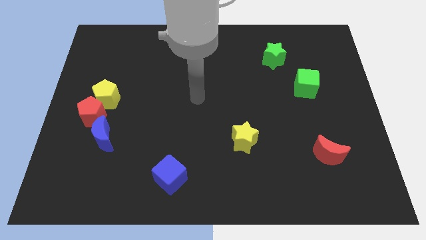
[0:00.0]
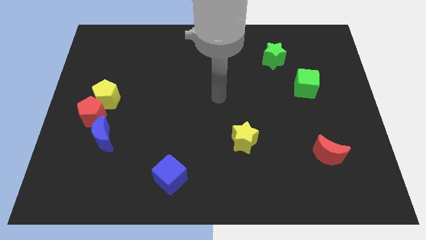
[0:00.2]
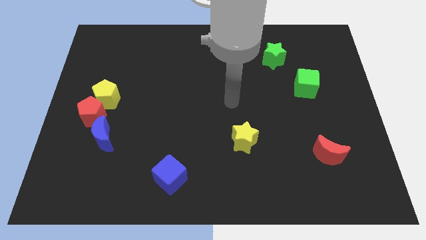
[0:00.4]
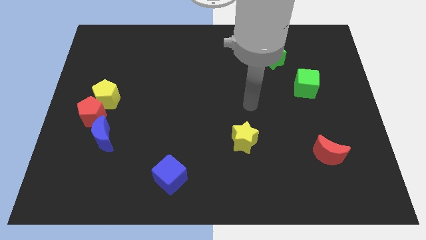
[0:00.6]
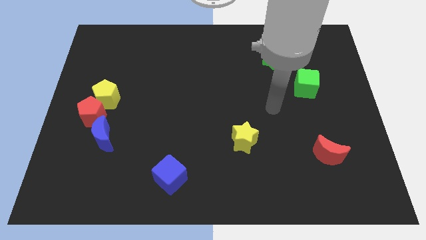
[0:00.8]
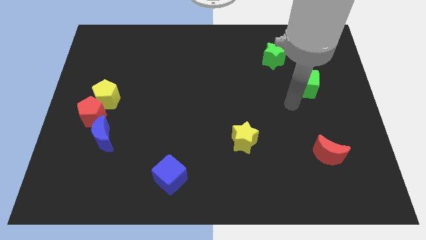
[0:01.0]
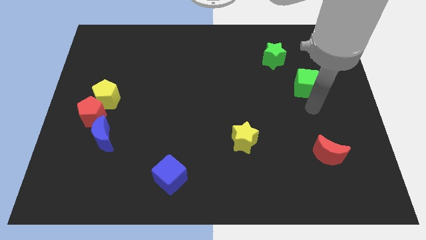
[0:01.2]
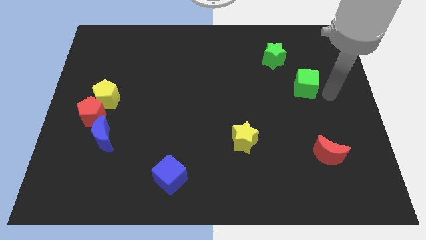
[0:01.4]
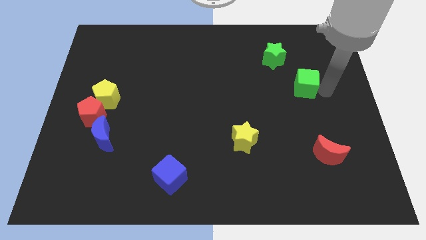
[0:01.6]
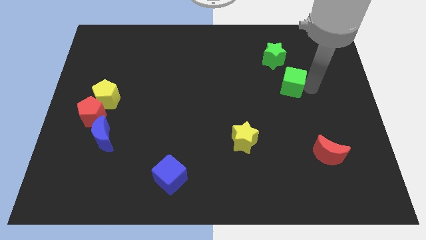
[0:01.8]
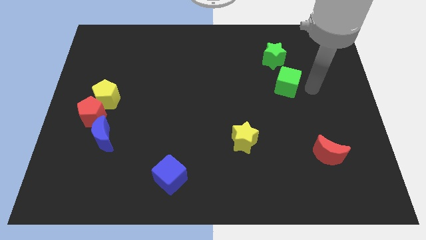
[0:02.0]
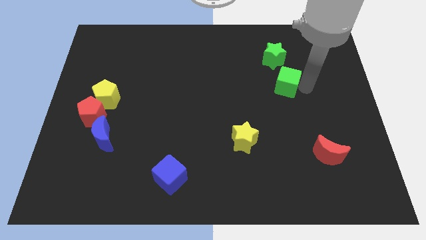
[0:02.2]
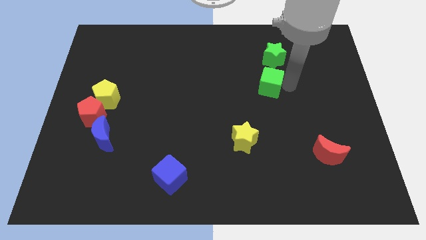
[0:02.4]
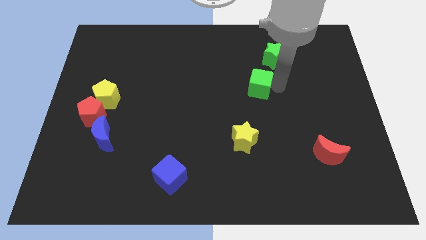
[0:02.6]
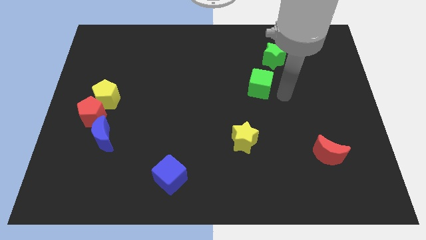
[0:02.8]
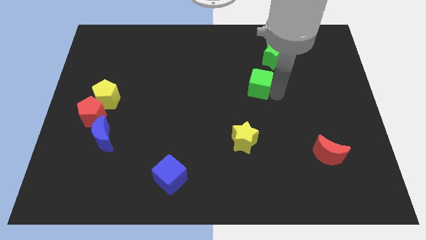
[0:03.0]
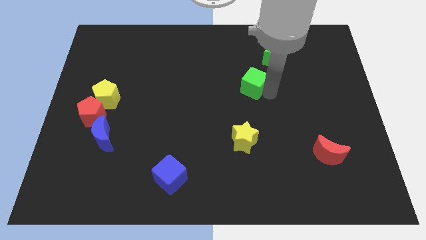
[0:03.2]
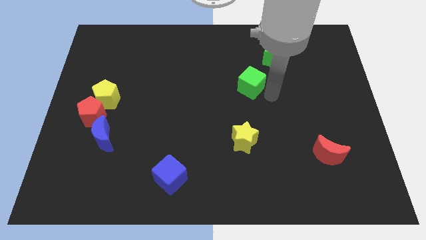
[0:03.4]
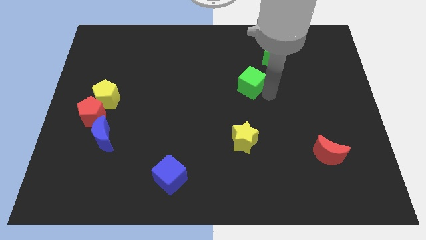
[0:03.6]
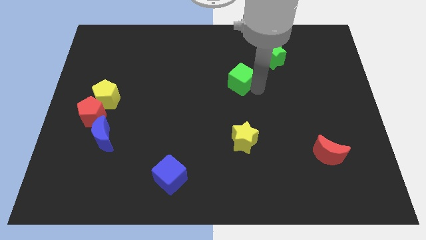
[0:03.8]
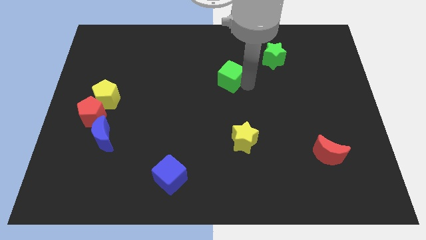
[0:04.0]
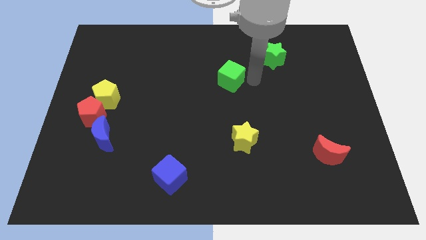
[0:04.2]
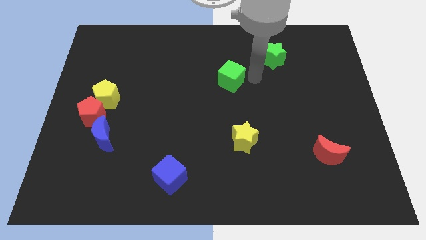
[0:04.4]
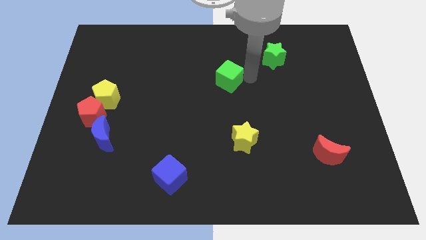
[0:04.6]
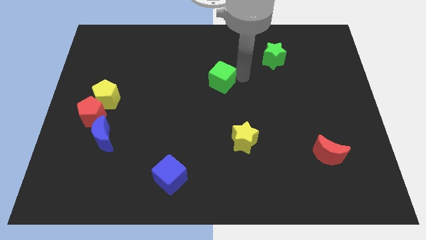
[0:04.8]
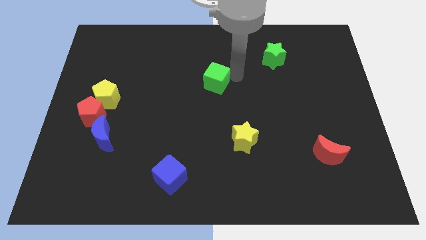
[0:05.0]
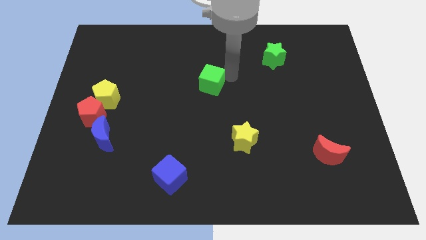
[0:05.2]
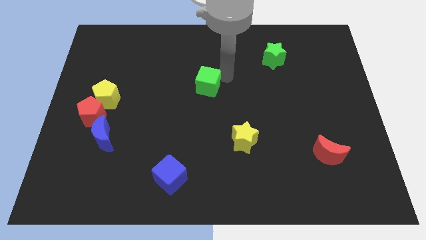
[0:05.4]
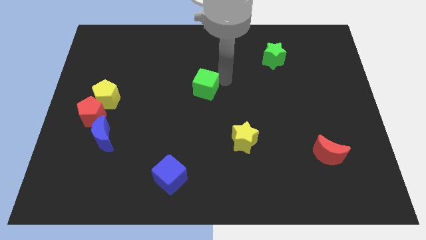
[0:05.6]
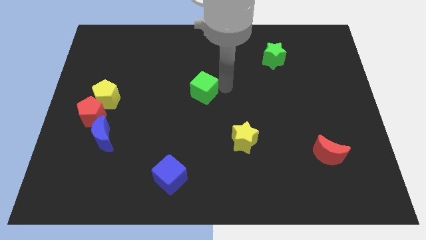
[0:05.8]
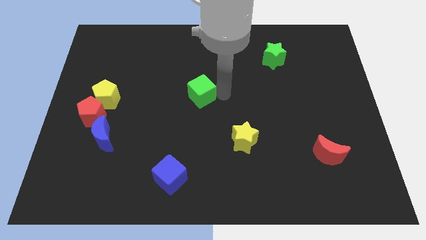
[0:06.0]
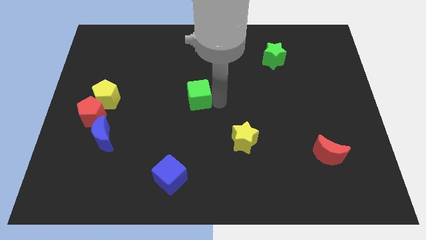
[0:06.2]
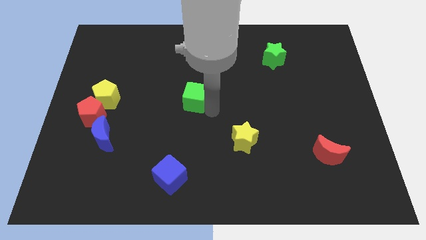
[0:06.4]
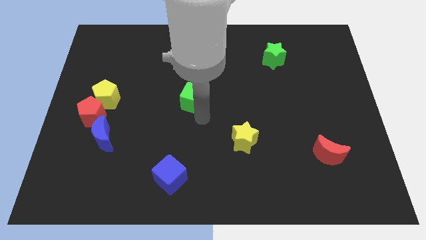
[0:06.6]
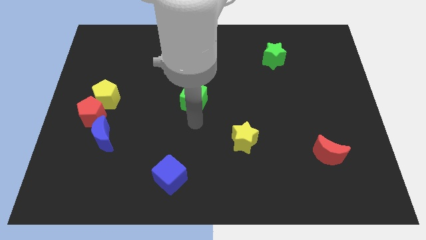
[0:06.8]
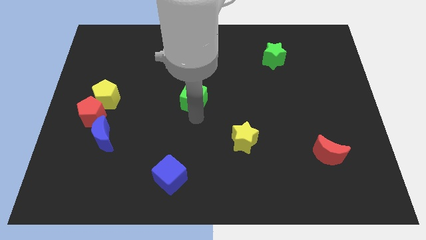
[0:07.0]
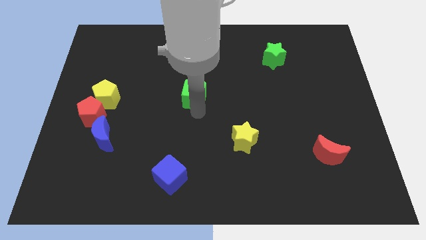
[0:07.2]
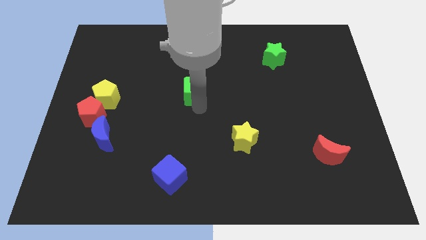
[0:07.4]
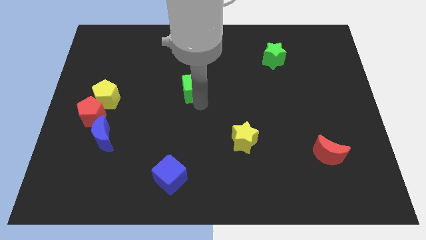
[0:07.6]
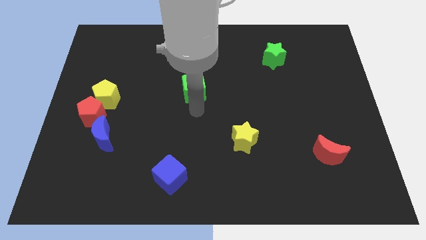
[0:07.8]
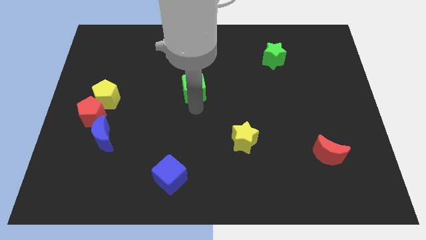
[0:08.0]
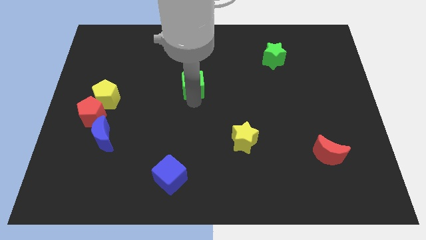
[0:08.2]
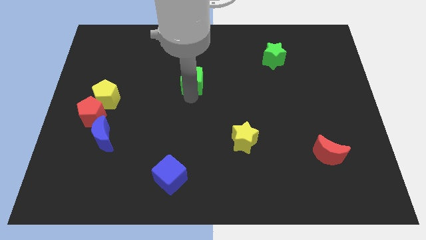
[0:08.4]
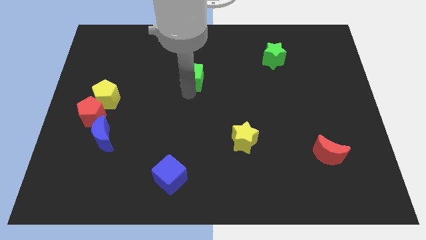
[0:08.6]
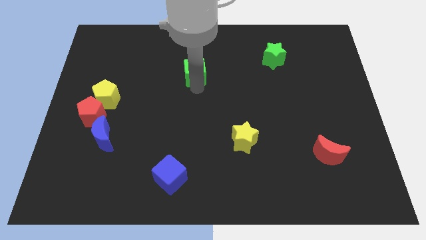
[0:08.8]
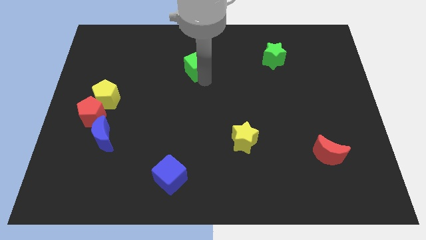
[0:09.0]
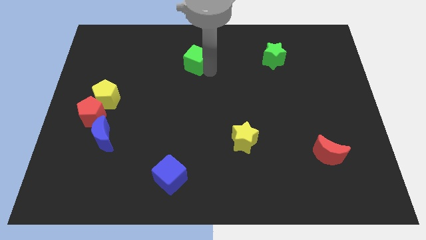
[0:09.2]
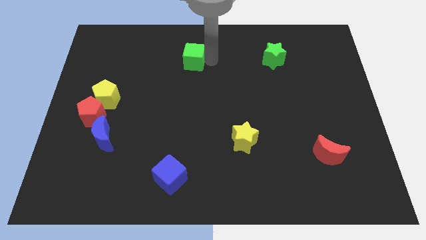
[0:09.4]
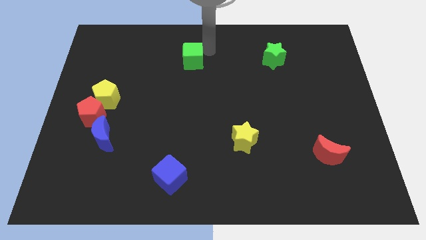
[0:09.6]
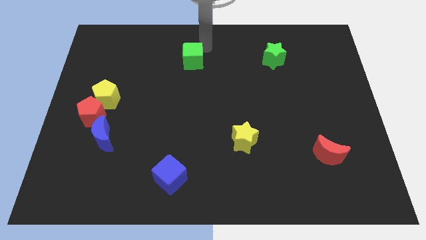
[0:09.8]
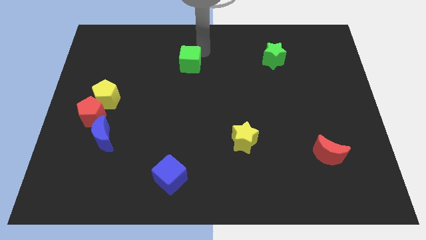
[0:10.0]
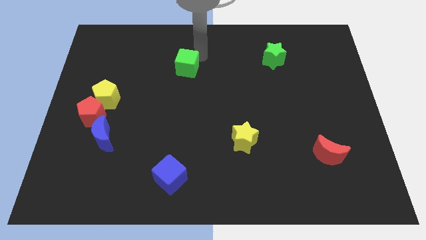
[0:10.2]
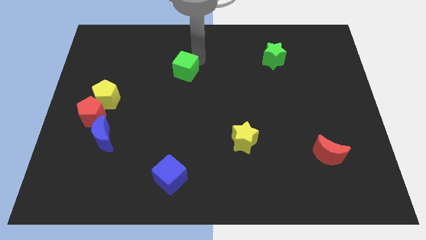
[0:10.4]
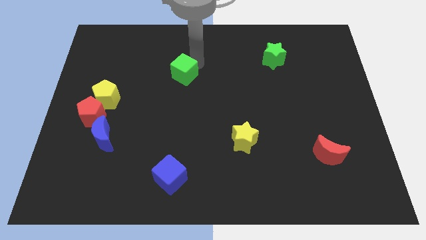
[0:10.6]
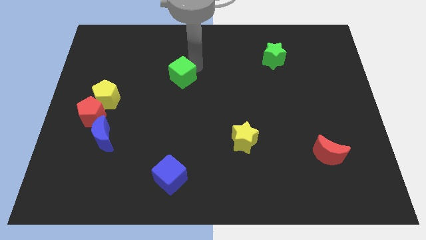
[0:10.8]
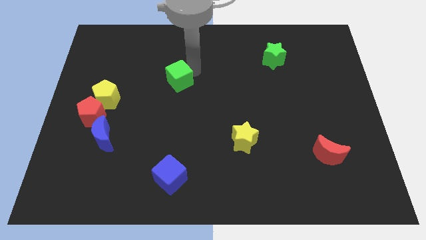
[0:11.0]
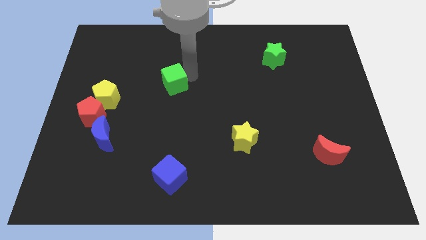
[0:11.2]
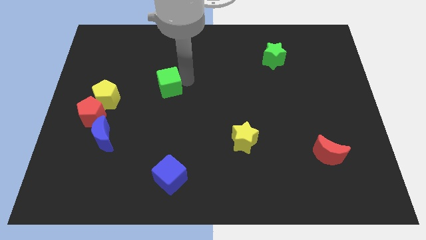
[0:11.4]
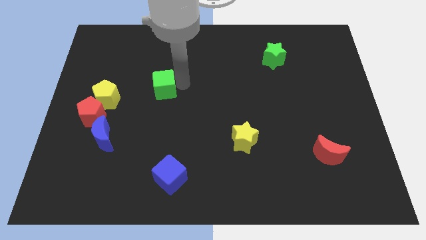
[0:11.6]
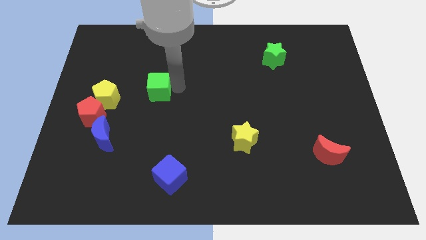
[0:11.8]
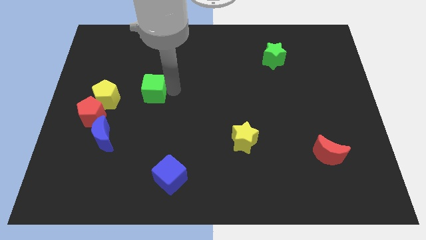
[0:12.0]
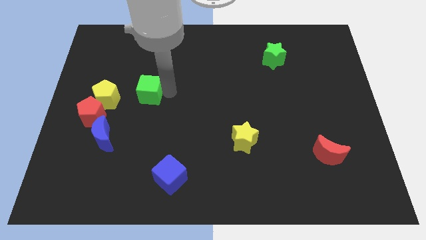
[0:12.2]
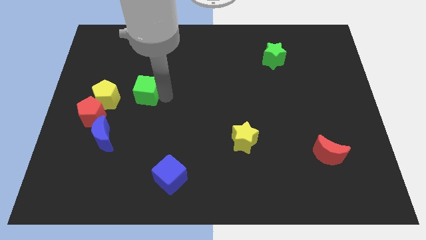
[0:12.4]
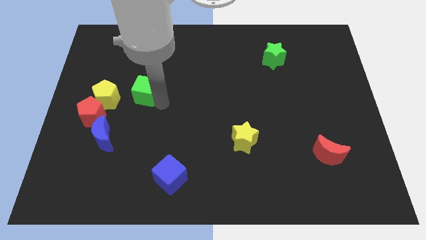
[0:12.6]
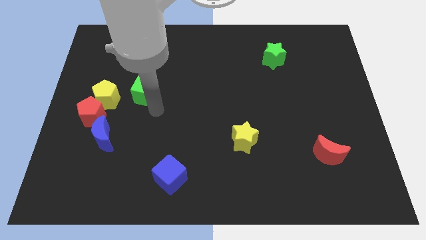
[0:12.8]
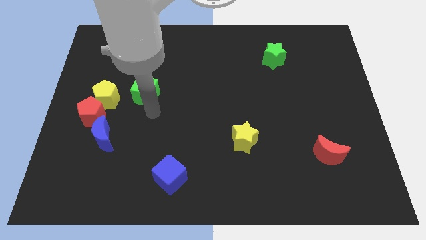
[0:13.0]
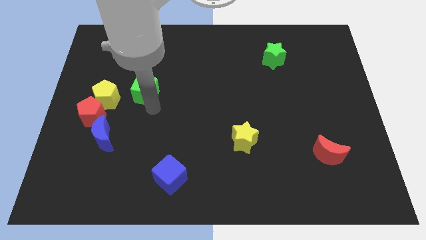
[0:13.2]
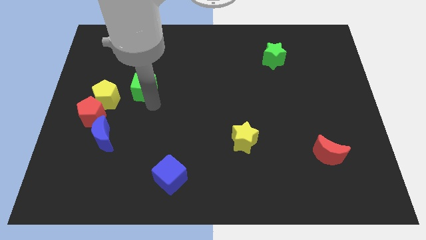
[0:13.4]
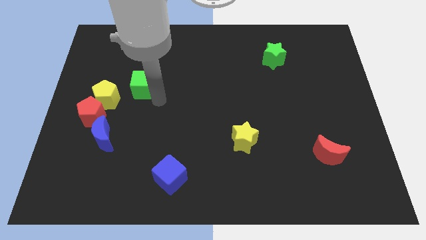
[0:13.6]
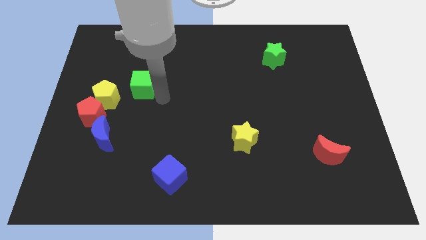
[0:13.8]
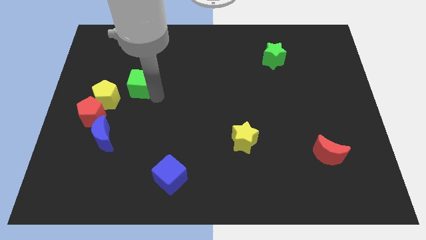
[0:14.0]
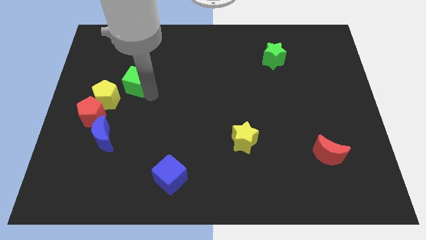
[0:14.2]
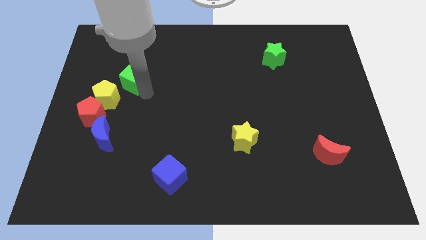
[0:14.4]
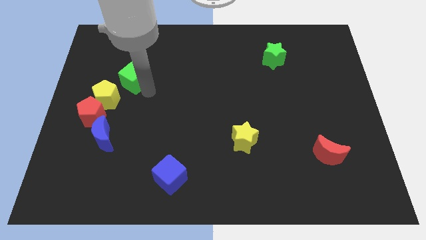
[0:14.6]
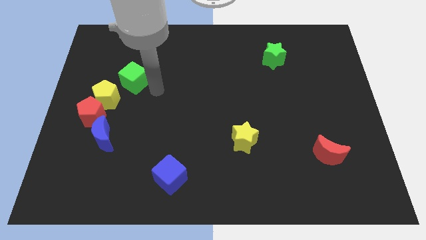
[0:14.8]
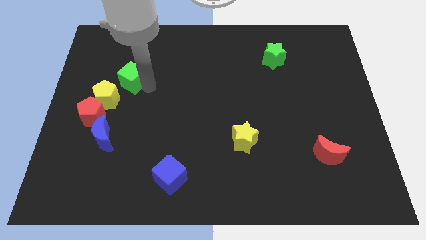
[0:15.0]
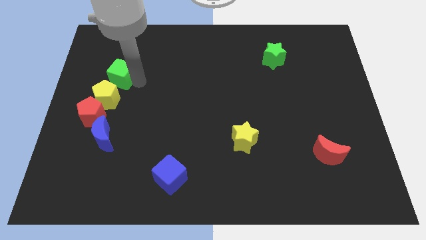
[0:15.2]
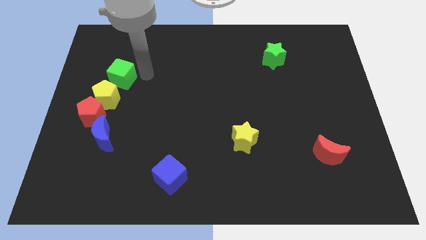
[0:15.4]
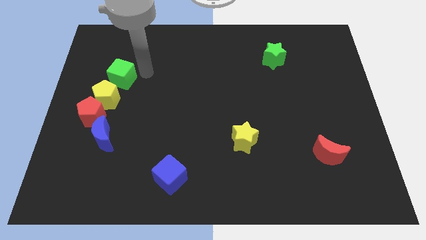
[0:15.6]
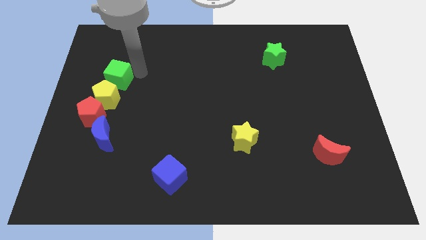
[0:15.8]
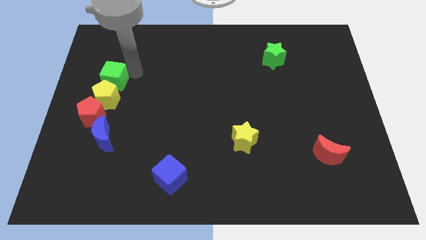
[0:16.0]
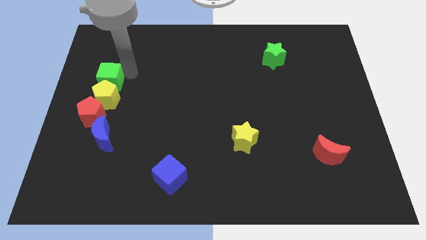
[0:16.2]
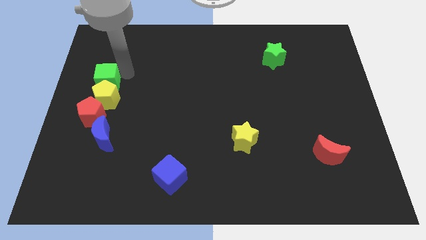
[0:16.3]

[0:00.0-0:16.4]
move the green cube to the left side of the board
